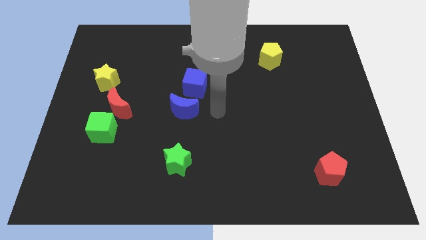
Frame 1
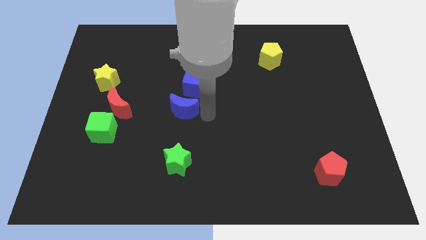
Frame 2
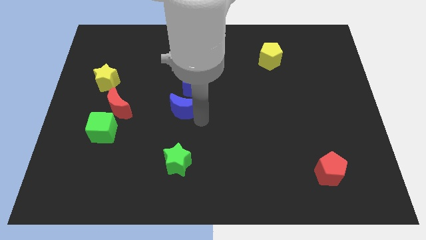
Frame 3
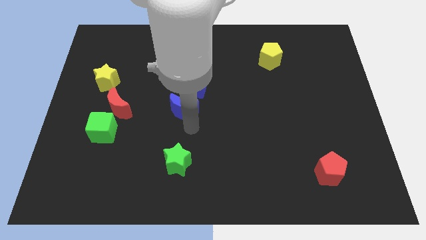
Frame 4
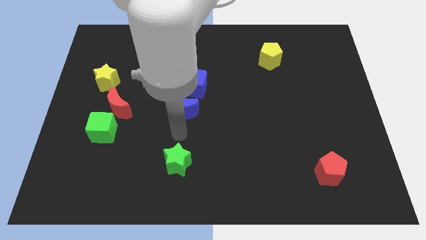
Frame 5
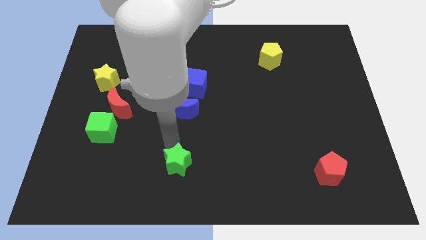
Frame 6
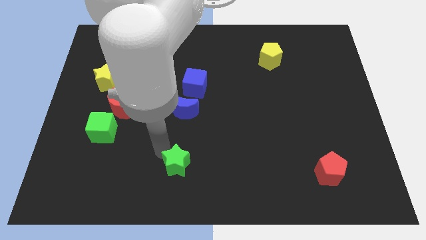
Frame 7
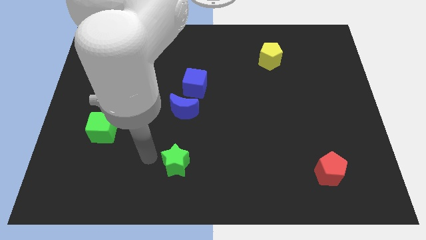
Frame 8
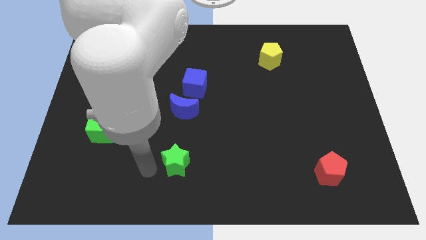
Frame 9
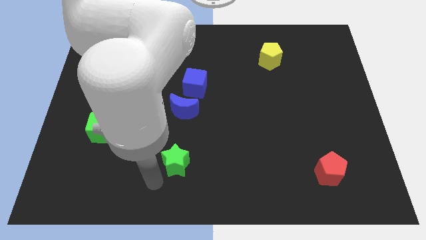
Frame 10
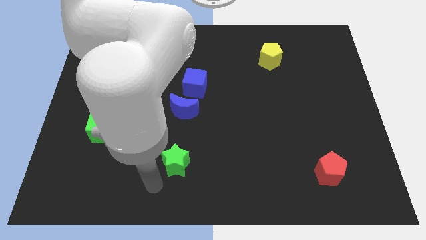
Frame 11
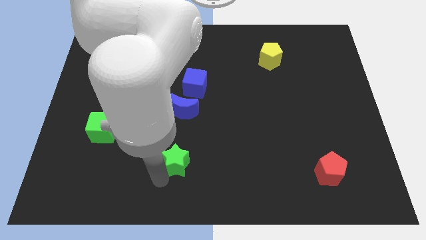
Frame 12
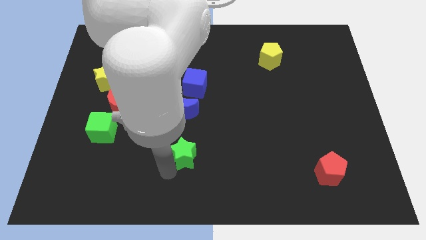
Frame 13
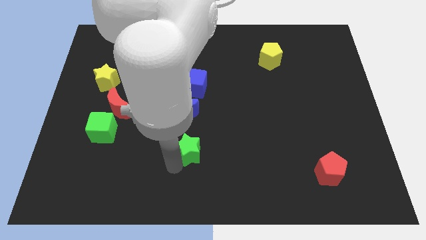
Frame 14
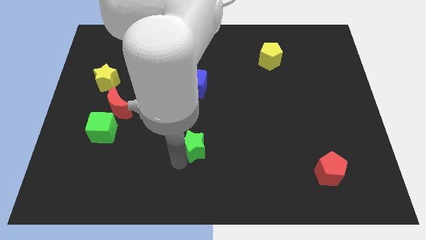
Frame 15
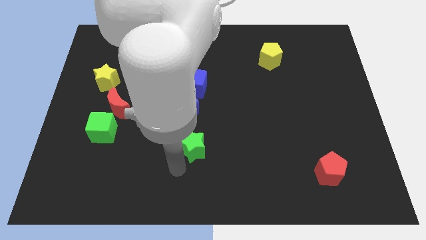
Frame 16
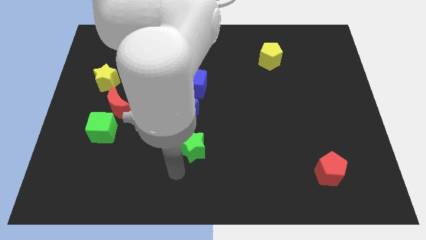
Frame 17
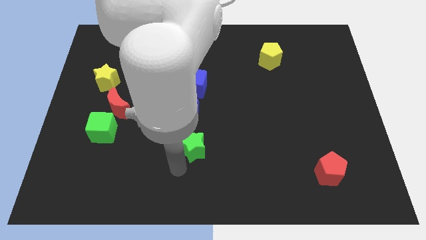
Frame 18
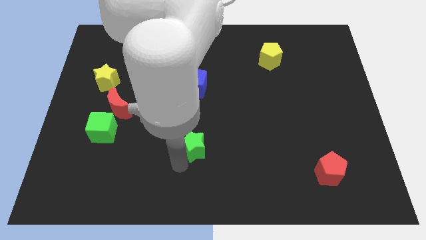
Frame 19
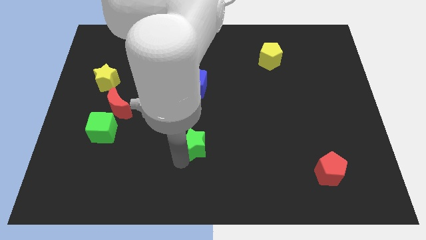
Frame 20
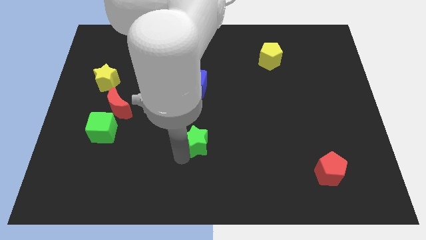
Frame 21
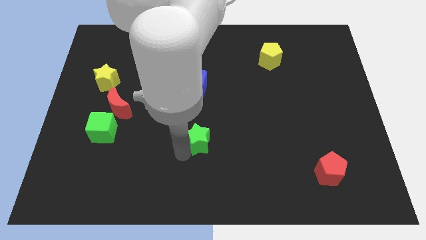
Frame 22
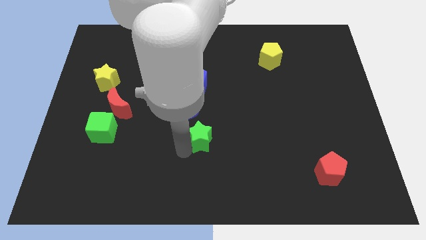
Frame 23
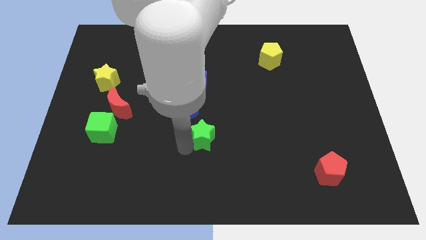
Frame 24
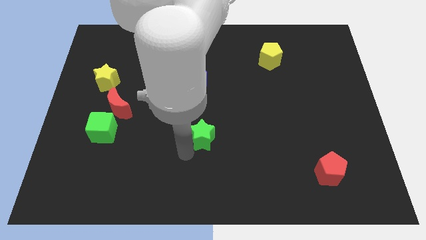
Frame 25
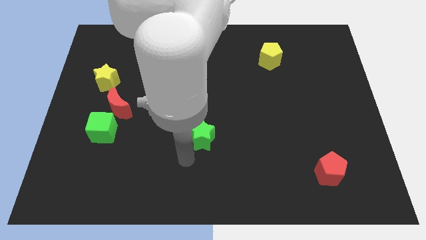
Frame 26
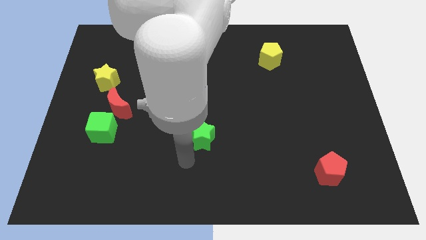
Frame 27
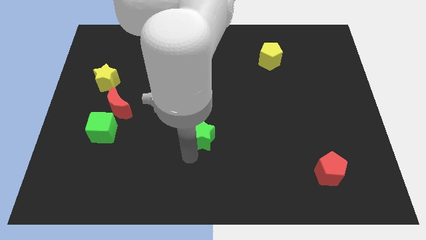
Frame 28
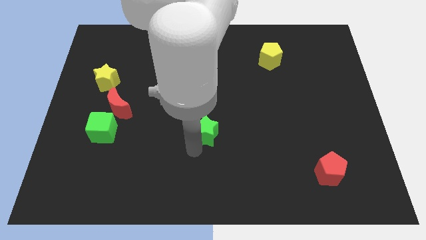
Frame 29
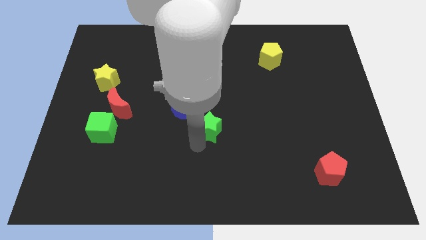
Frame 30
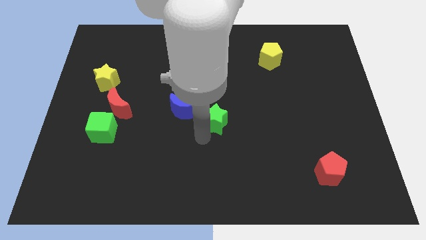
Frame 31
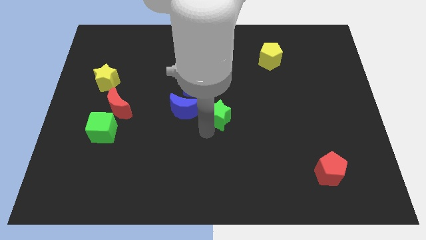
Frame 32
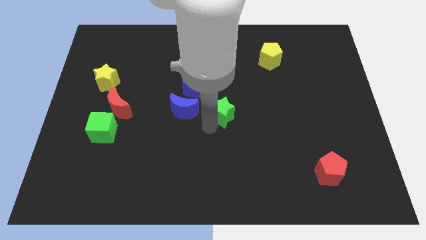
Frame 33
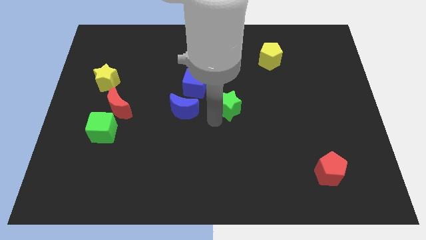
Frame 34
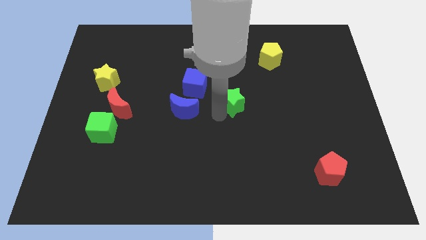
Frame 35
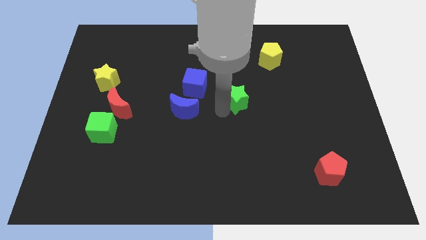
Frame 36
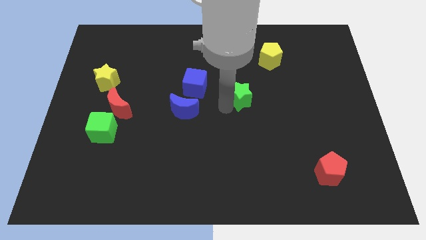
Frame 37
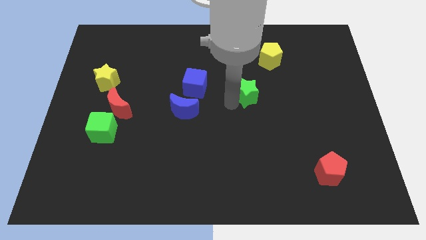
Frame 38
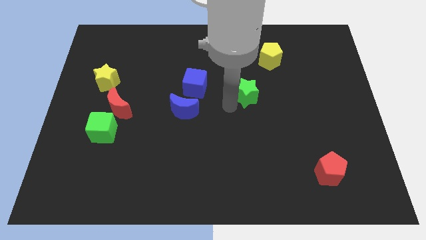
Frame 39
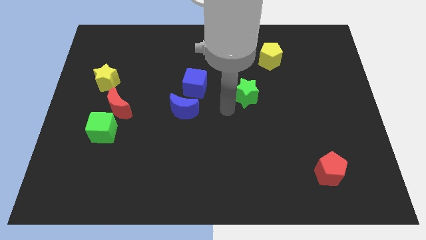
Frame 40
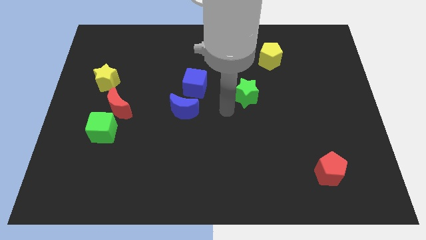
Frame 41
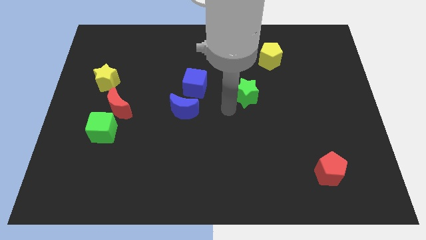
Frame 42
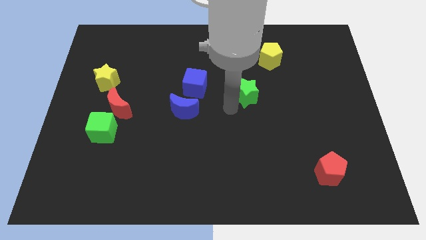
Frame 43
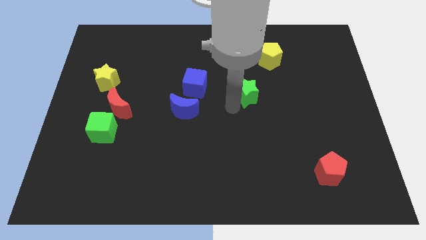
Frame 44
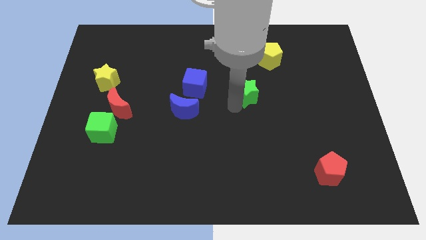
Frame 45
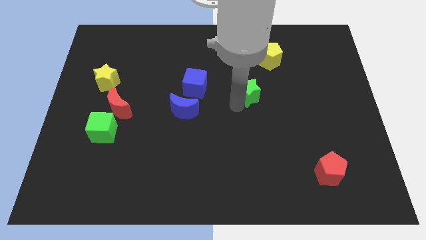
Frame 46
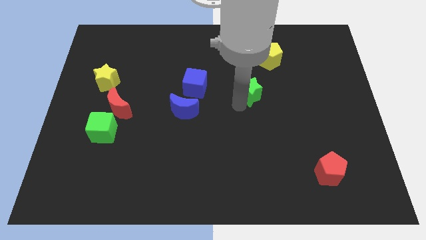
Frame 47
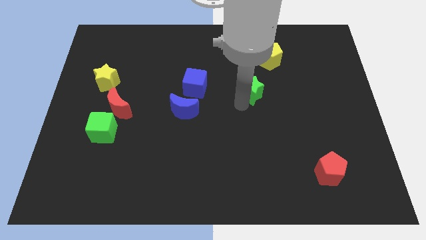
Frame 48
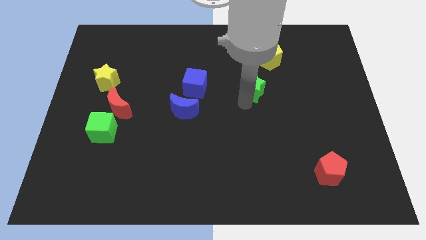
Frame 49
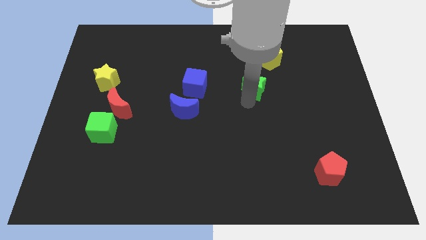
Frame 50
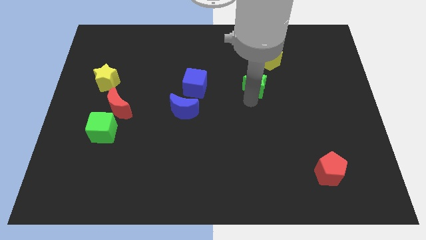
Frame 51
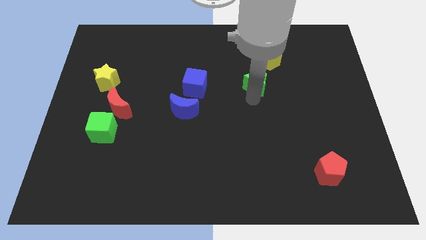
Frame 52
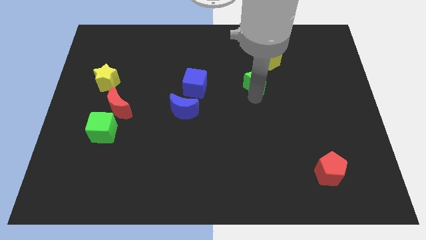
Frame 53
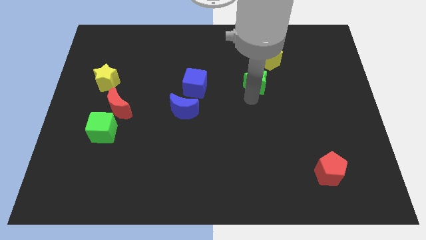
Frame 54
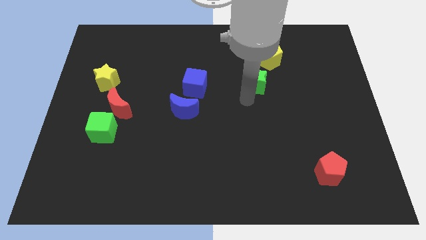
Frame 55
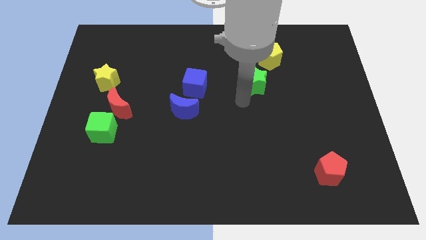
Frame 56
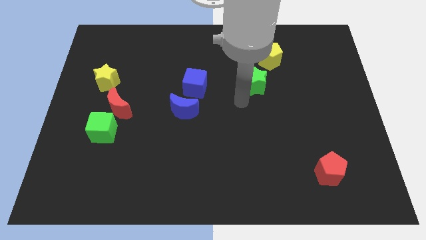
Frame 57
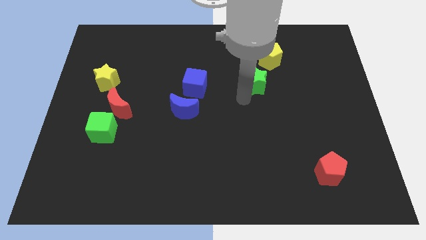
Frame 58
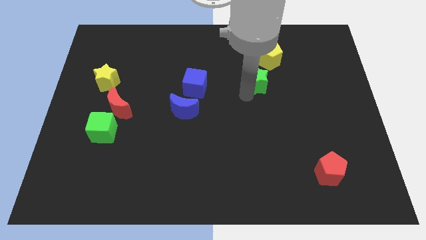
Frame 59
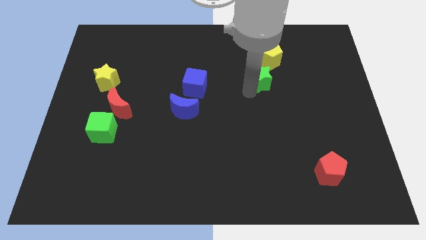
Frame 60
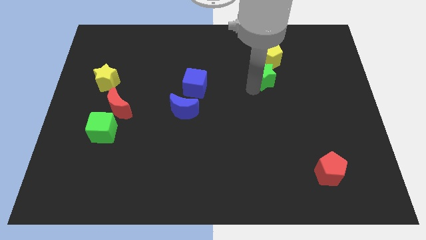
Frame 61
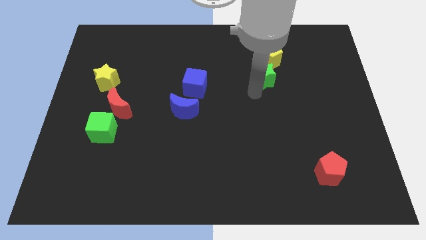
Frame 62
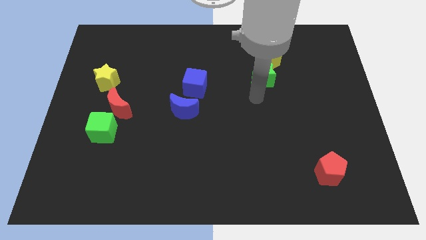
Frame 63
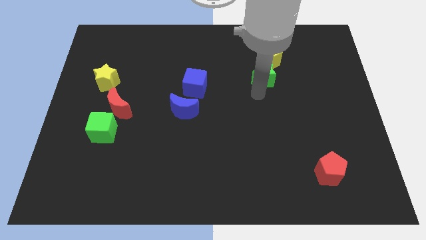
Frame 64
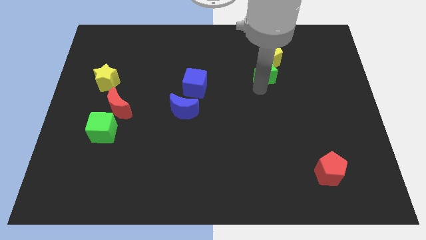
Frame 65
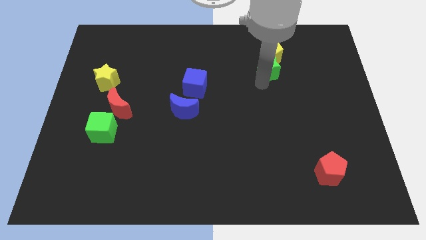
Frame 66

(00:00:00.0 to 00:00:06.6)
slide the green star to the yellow pentagon

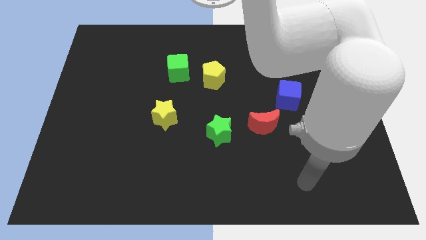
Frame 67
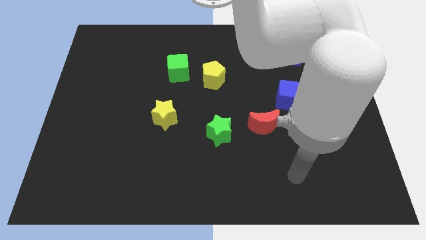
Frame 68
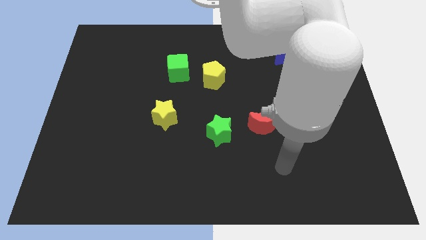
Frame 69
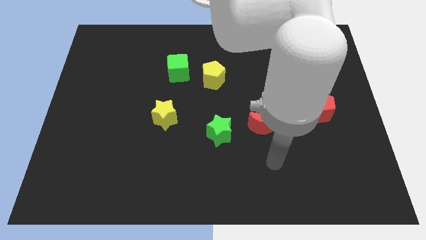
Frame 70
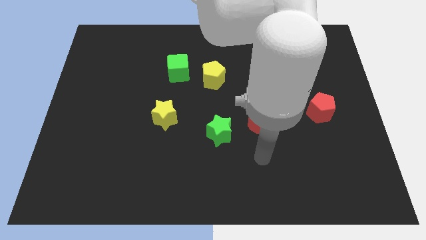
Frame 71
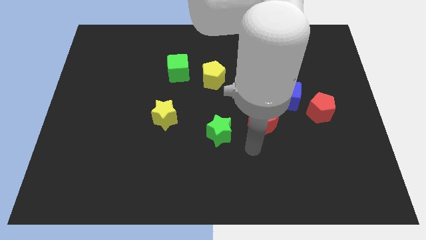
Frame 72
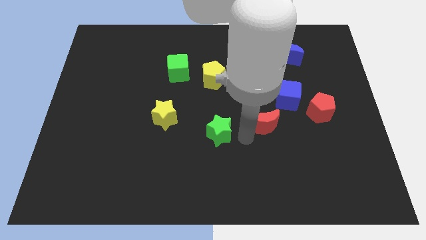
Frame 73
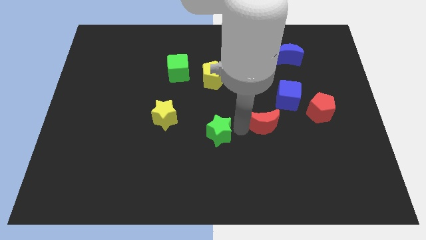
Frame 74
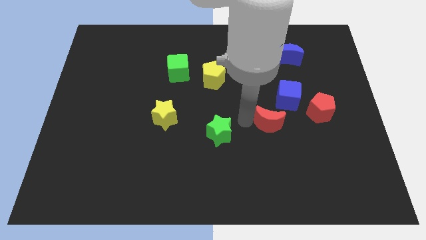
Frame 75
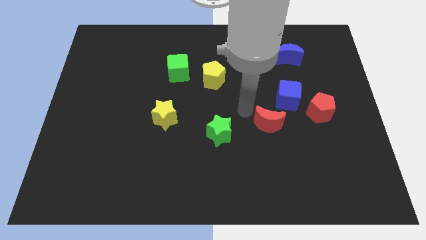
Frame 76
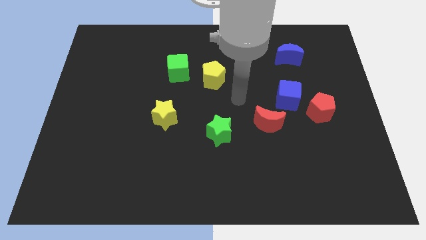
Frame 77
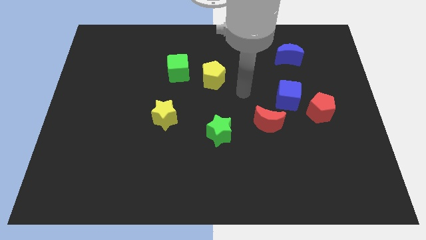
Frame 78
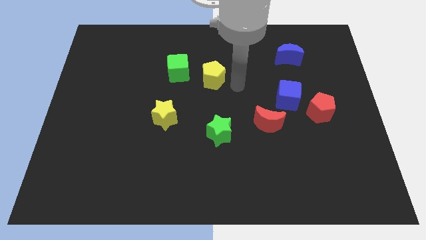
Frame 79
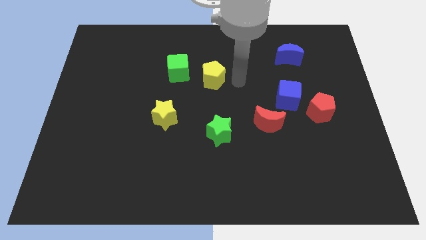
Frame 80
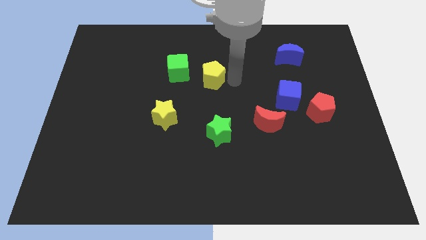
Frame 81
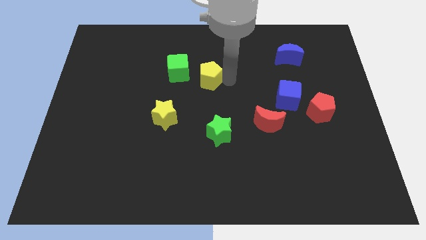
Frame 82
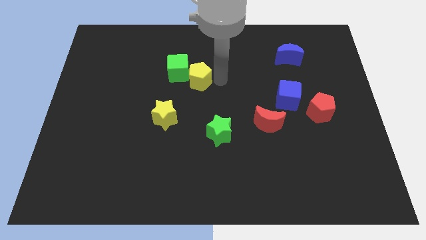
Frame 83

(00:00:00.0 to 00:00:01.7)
slide the yellow pentagon towards the green cube
